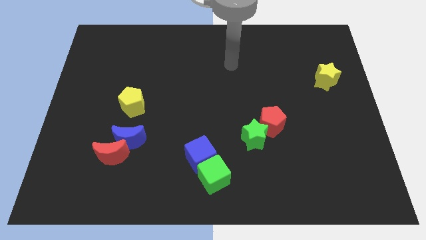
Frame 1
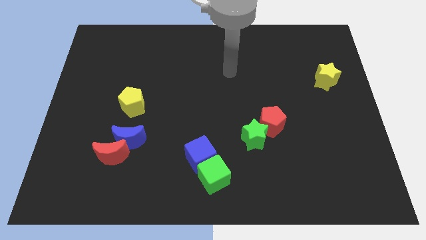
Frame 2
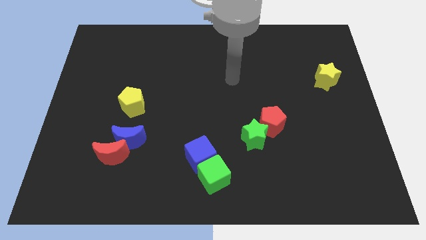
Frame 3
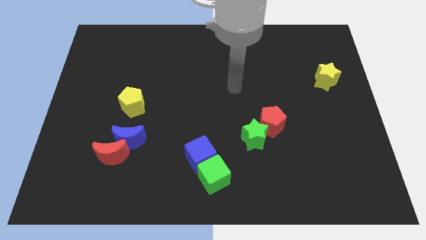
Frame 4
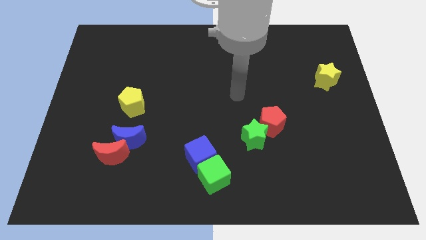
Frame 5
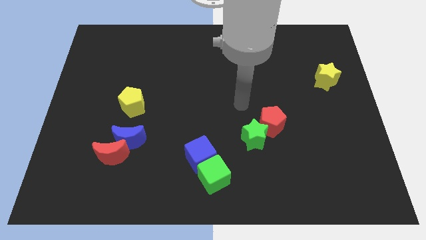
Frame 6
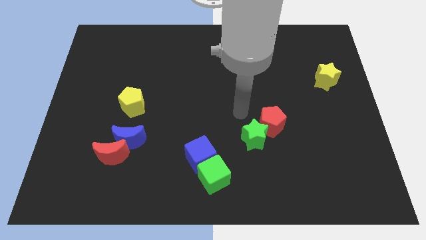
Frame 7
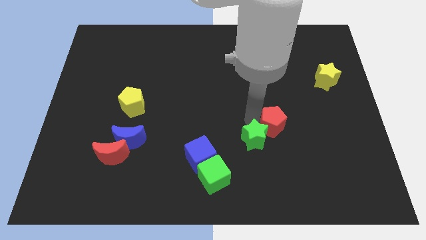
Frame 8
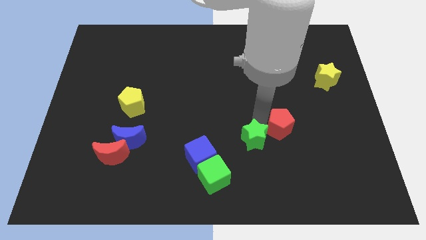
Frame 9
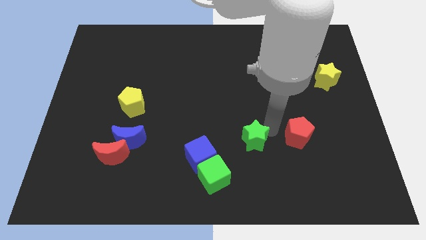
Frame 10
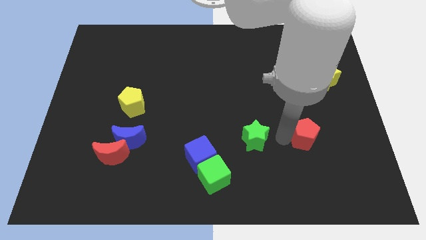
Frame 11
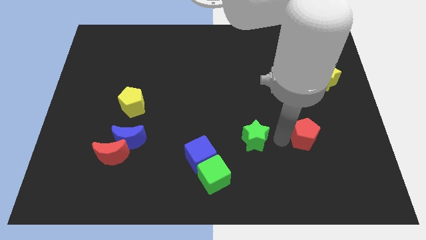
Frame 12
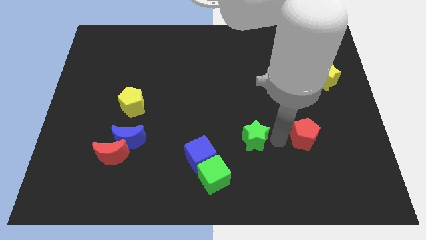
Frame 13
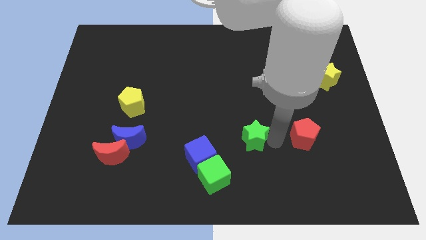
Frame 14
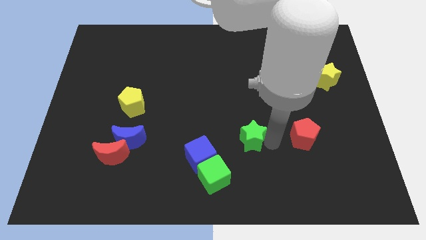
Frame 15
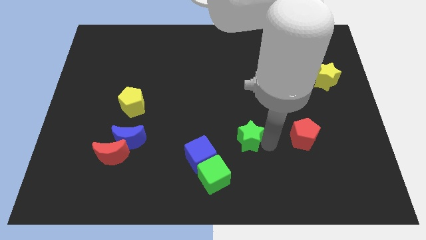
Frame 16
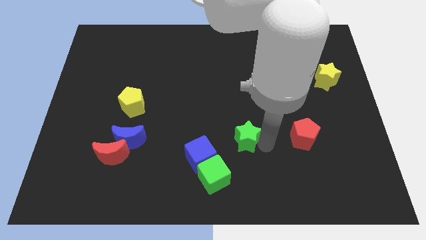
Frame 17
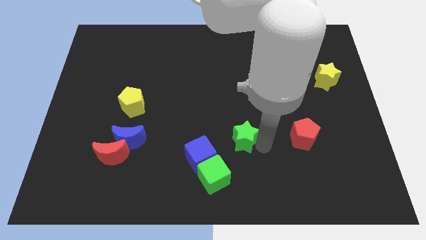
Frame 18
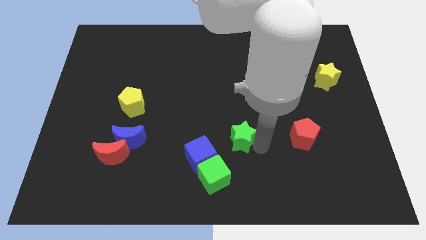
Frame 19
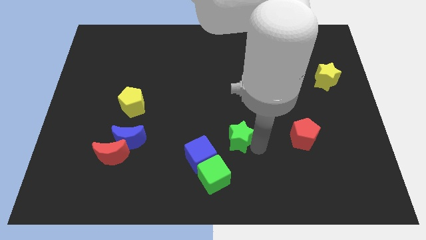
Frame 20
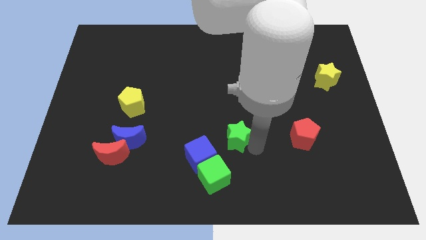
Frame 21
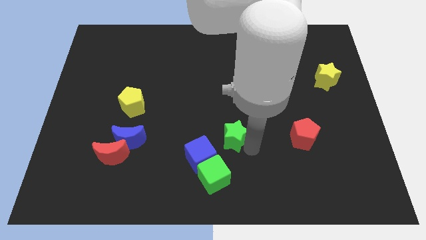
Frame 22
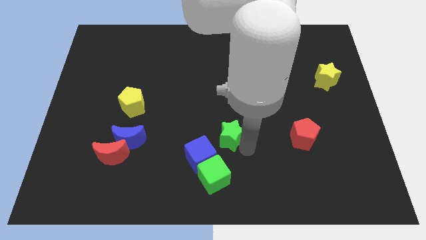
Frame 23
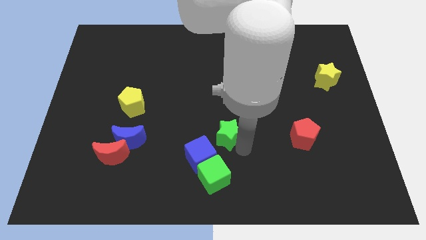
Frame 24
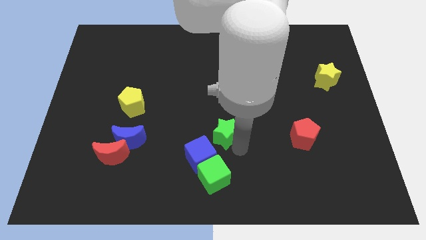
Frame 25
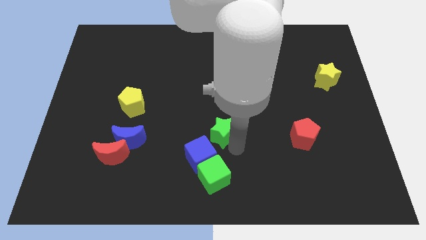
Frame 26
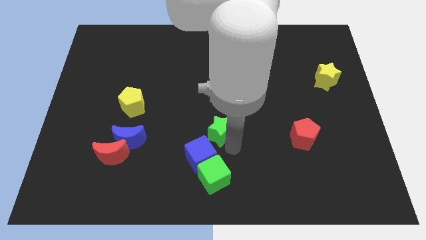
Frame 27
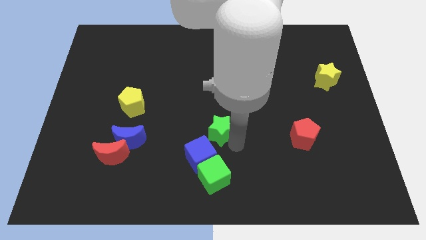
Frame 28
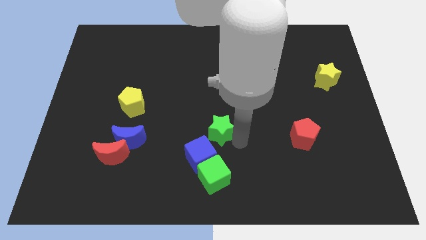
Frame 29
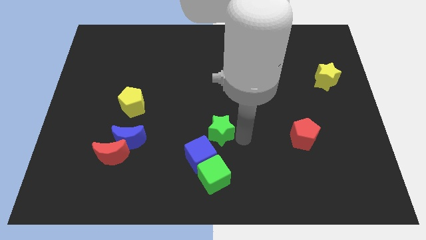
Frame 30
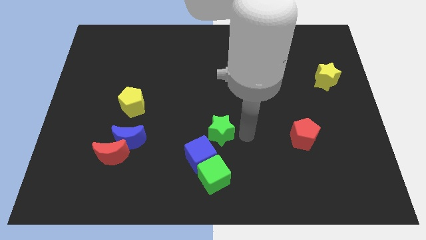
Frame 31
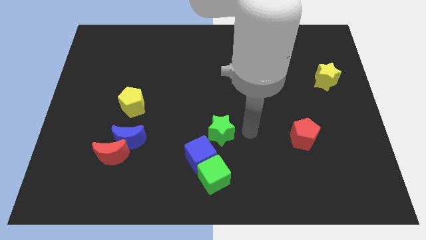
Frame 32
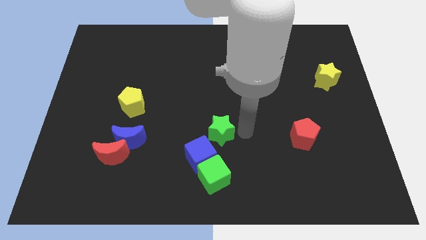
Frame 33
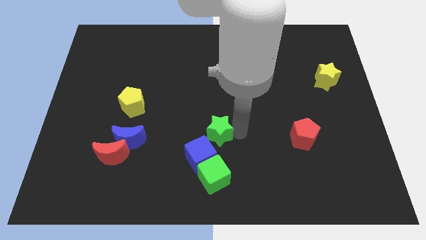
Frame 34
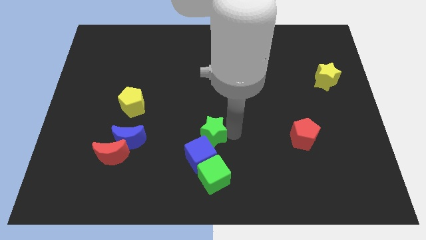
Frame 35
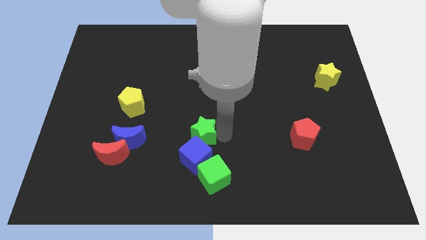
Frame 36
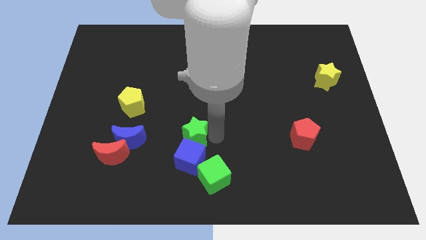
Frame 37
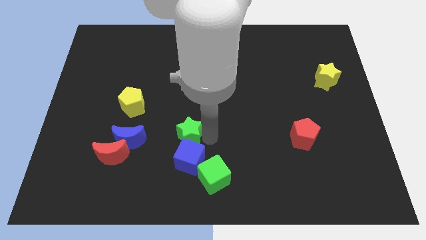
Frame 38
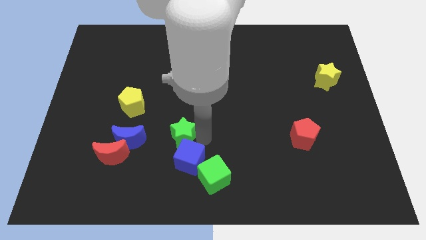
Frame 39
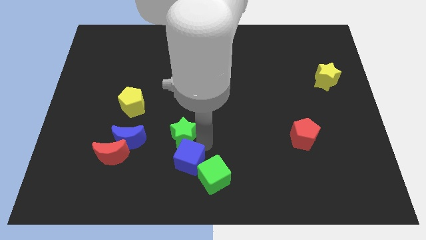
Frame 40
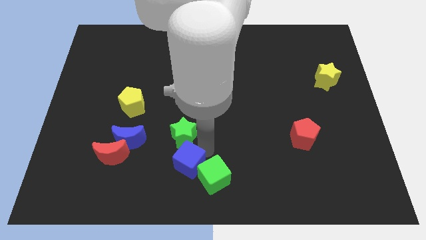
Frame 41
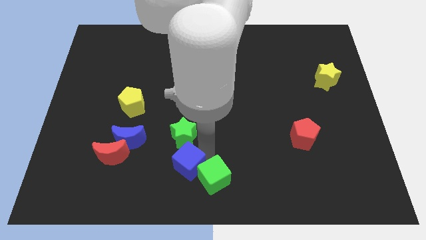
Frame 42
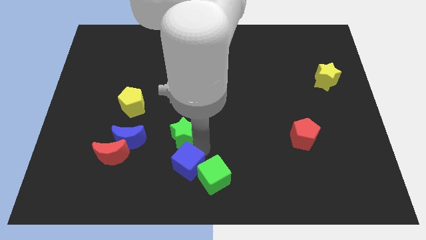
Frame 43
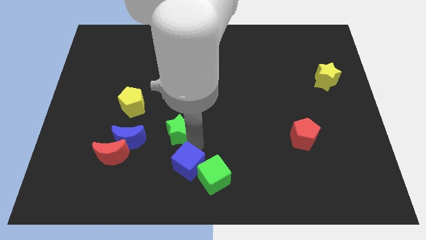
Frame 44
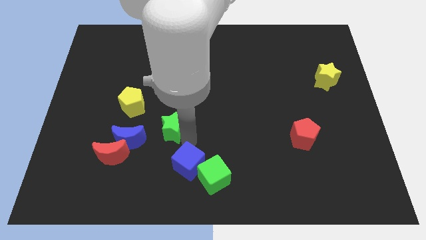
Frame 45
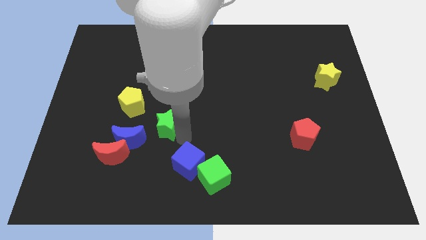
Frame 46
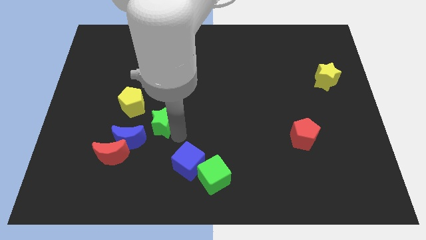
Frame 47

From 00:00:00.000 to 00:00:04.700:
slide the green star left

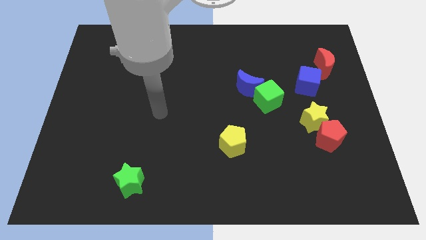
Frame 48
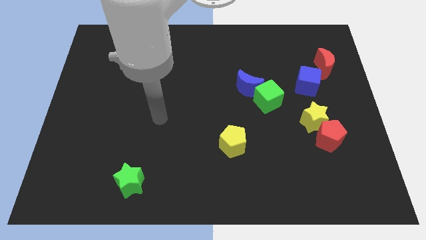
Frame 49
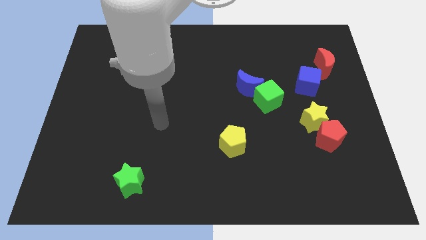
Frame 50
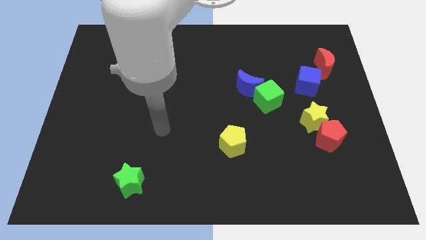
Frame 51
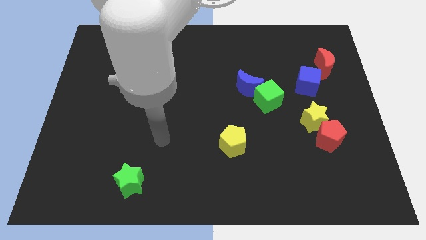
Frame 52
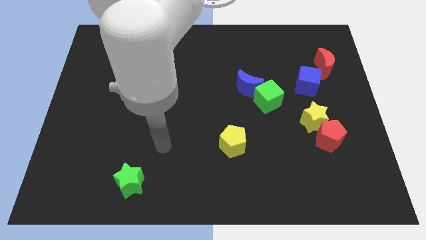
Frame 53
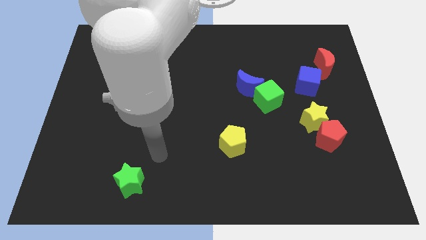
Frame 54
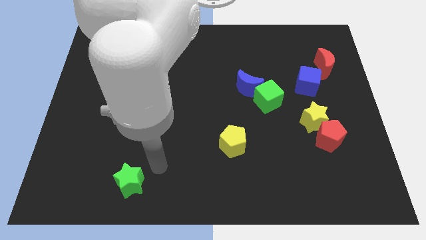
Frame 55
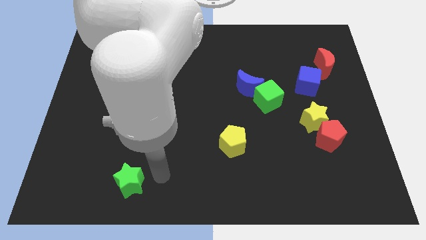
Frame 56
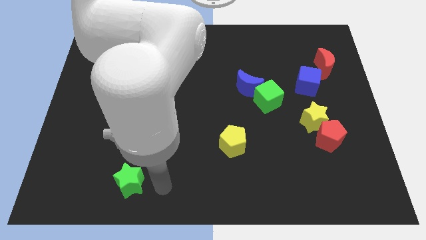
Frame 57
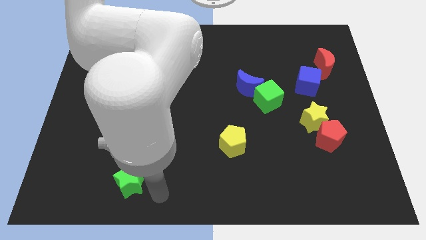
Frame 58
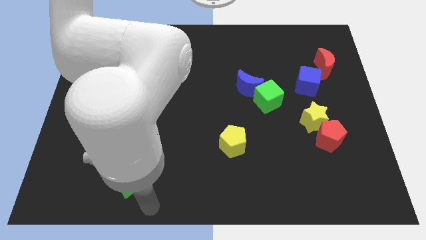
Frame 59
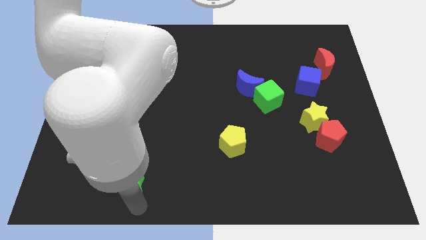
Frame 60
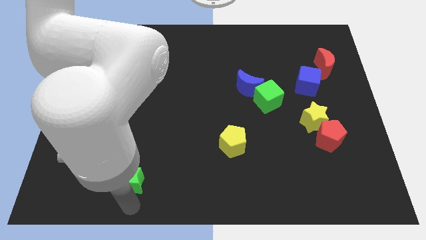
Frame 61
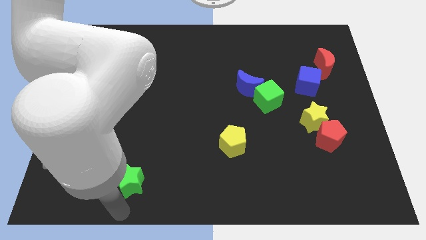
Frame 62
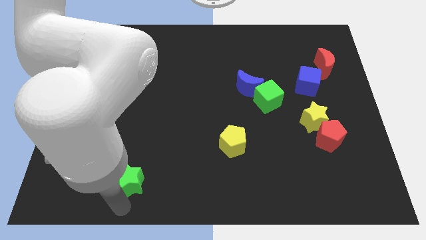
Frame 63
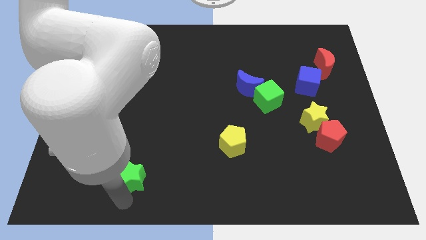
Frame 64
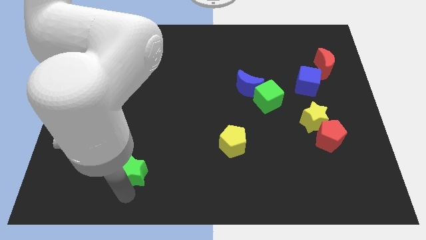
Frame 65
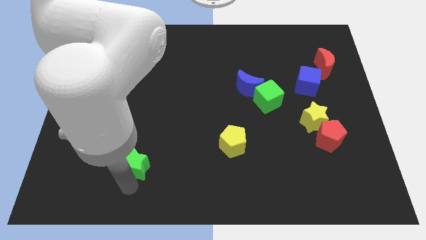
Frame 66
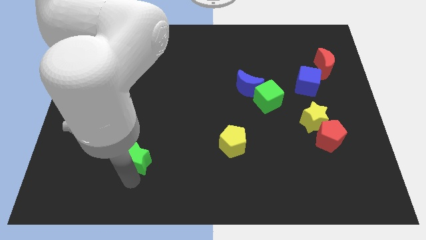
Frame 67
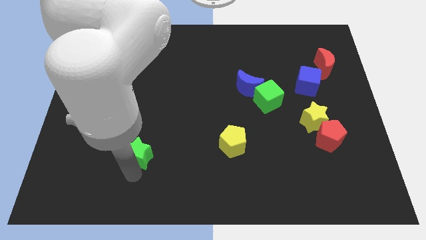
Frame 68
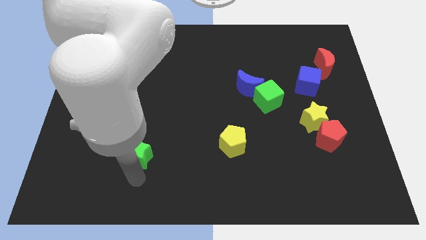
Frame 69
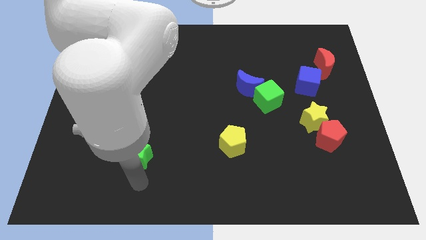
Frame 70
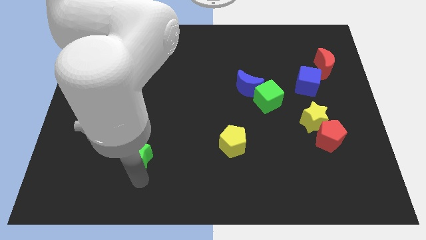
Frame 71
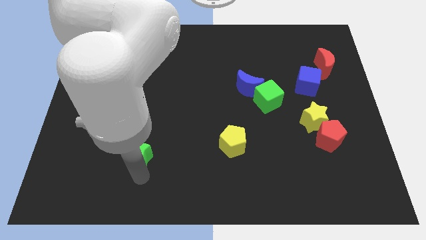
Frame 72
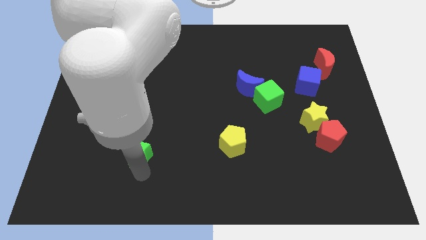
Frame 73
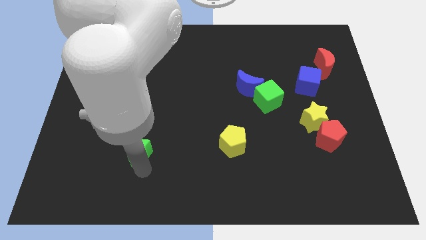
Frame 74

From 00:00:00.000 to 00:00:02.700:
slide the green star up a little bit

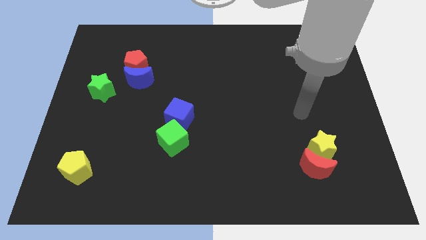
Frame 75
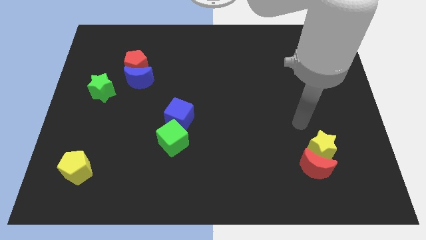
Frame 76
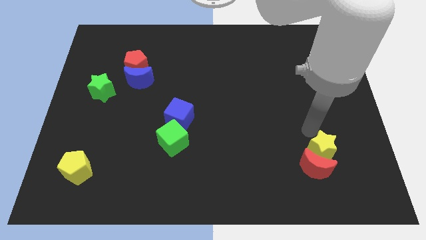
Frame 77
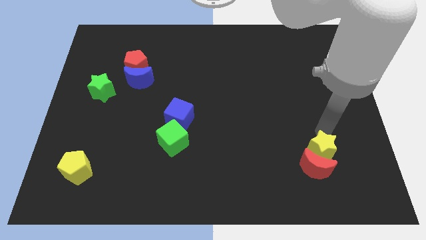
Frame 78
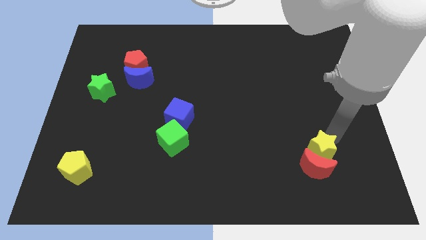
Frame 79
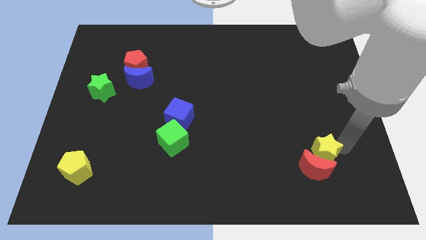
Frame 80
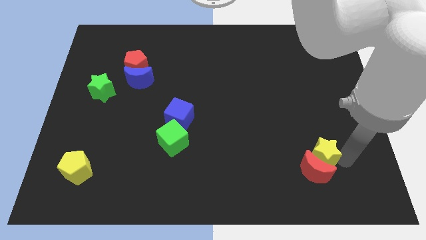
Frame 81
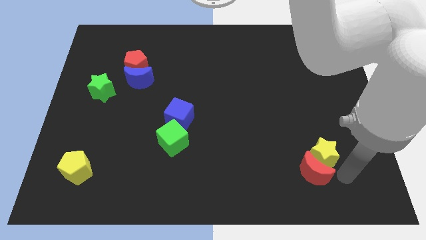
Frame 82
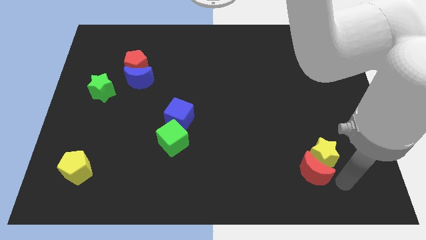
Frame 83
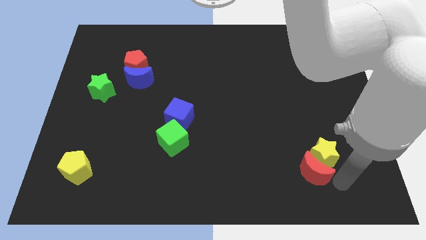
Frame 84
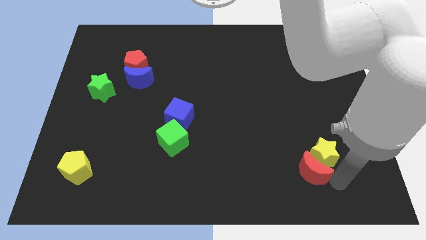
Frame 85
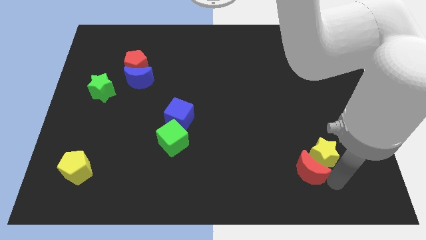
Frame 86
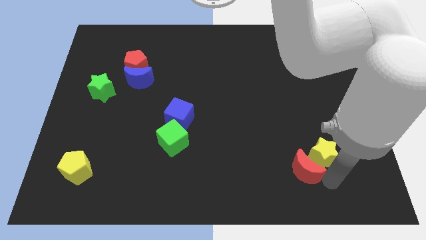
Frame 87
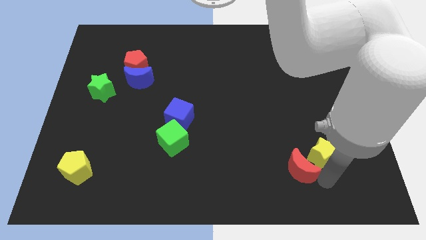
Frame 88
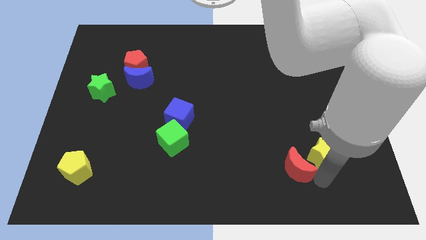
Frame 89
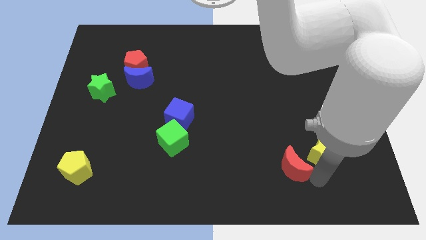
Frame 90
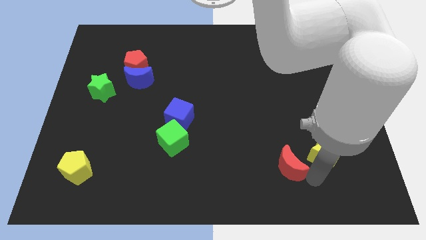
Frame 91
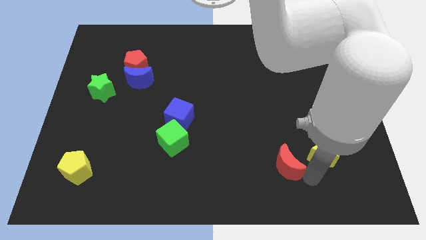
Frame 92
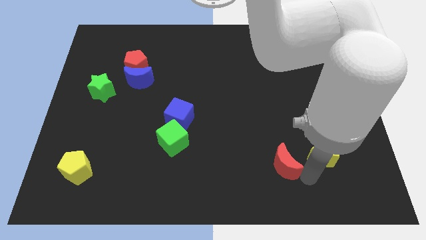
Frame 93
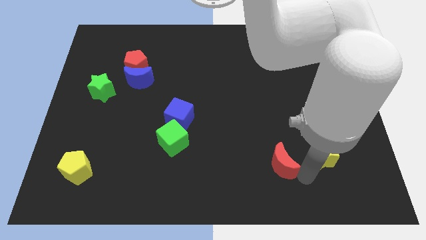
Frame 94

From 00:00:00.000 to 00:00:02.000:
slightly push the red moon left
